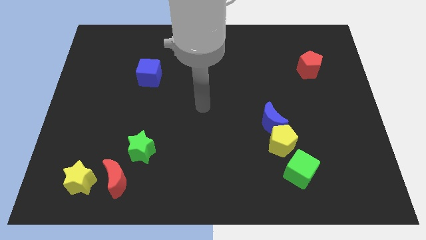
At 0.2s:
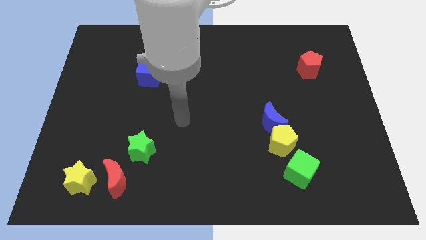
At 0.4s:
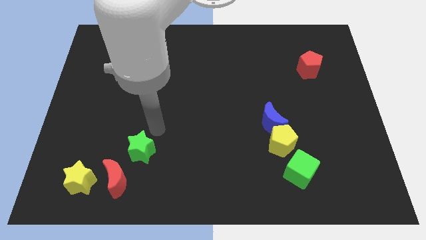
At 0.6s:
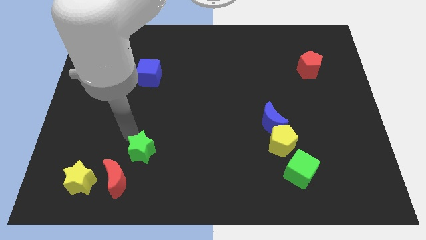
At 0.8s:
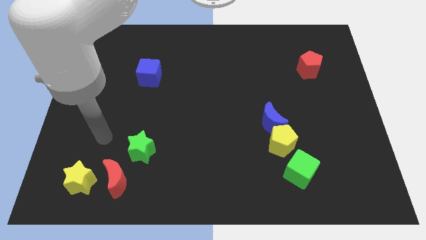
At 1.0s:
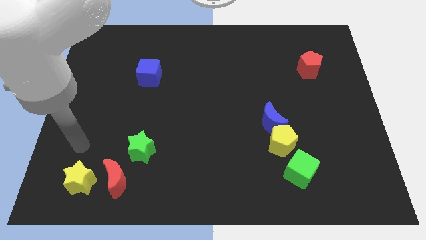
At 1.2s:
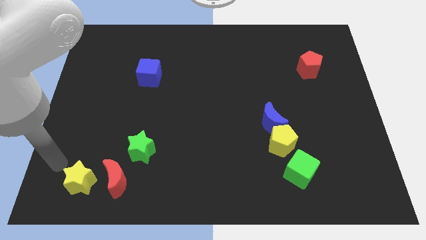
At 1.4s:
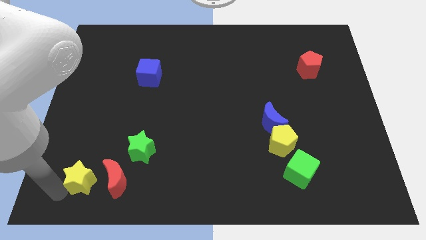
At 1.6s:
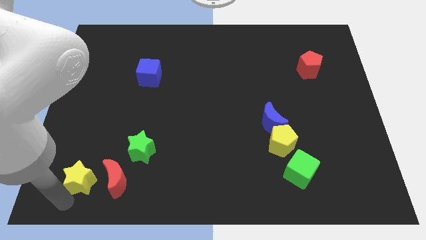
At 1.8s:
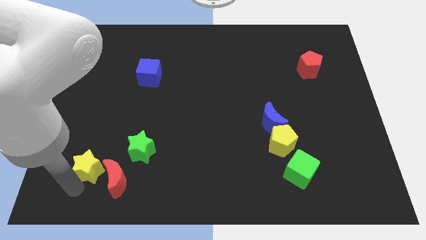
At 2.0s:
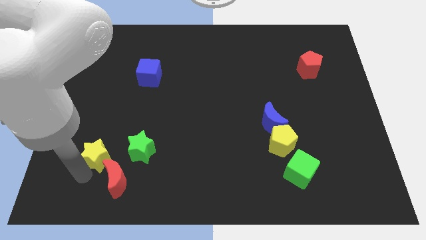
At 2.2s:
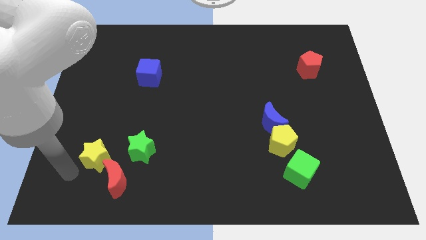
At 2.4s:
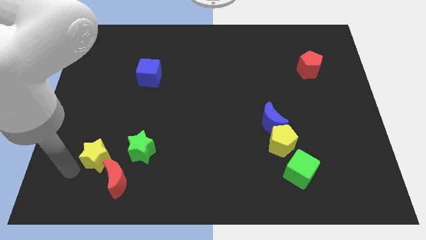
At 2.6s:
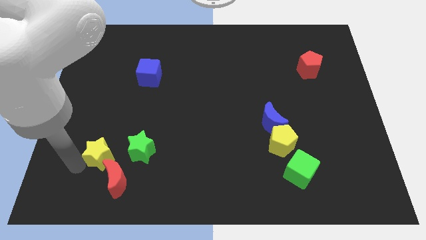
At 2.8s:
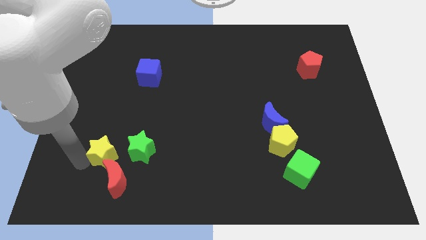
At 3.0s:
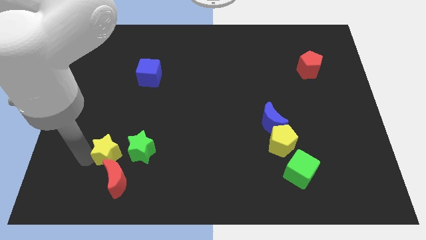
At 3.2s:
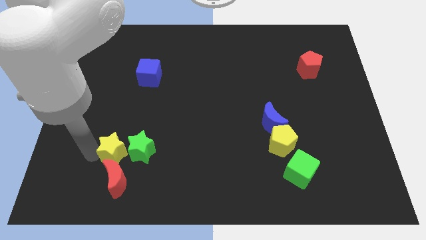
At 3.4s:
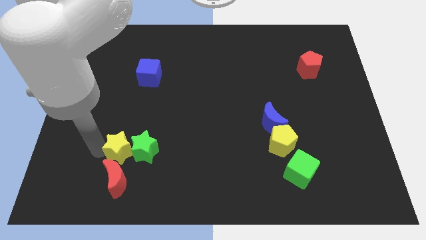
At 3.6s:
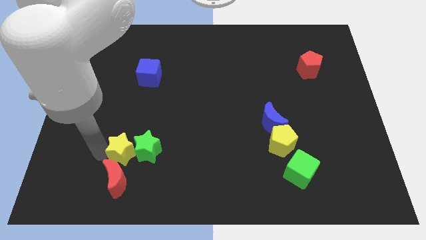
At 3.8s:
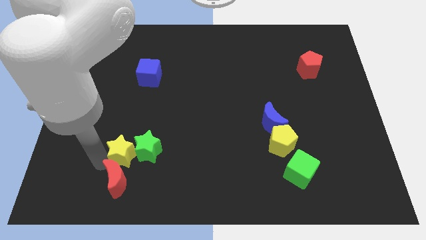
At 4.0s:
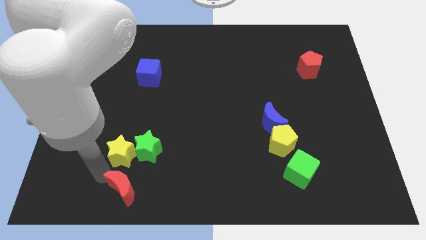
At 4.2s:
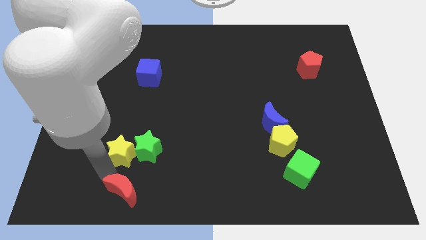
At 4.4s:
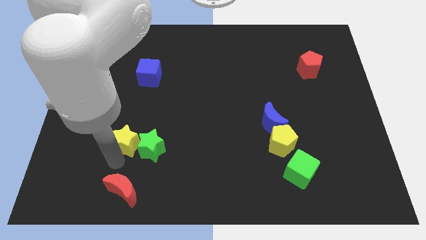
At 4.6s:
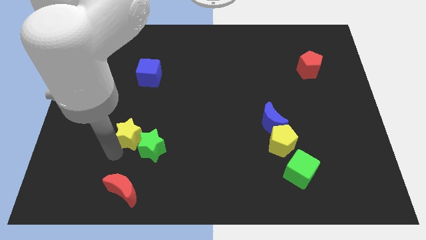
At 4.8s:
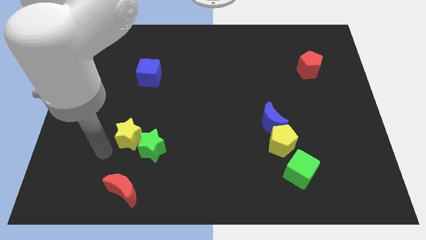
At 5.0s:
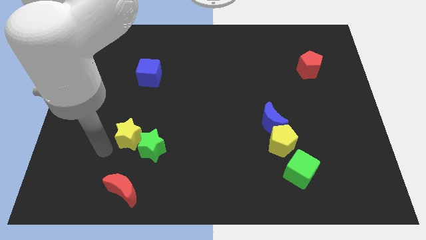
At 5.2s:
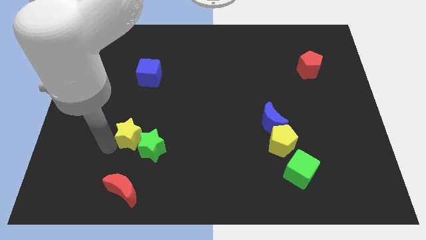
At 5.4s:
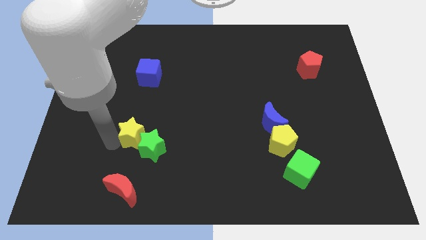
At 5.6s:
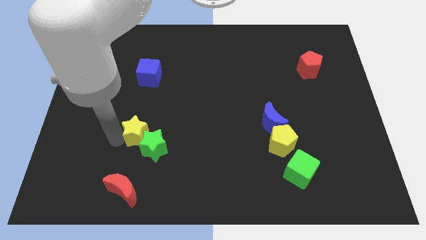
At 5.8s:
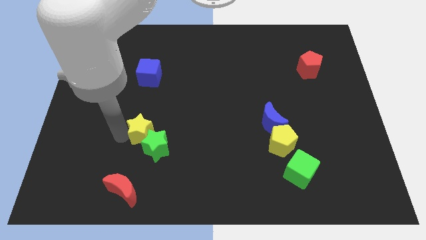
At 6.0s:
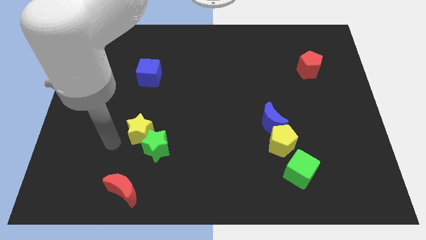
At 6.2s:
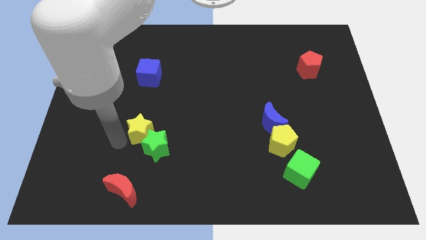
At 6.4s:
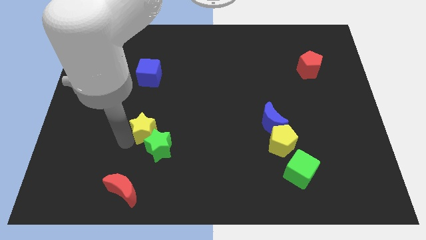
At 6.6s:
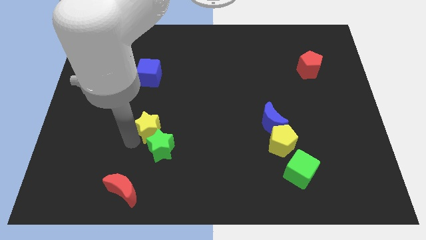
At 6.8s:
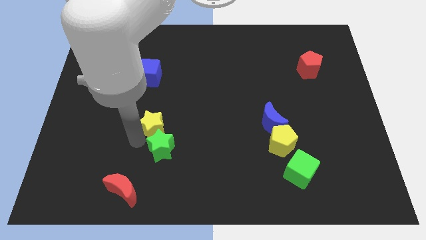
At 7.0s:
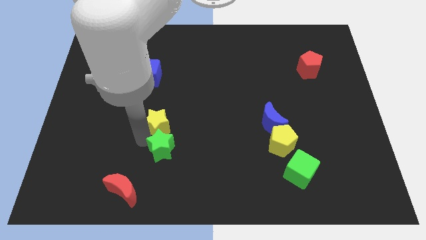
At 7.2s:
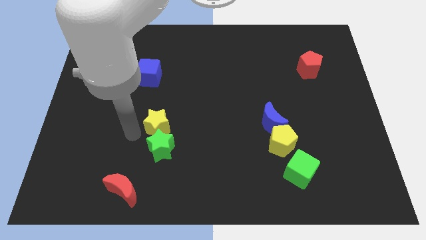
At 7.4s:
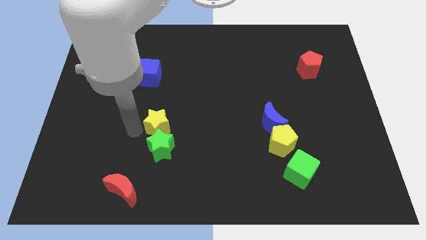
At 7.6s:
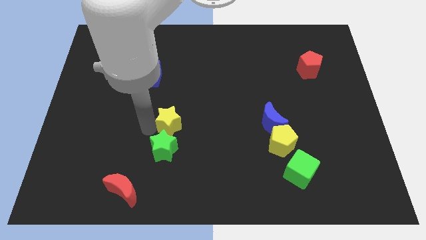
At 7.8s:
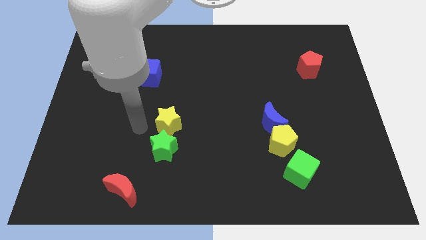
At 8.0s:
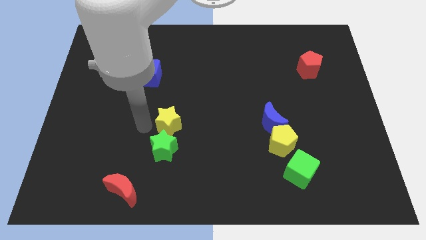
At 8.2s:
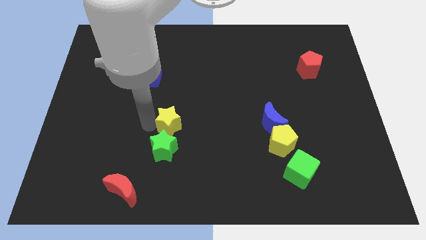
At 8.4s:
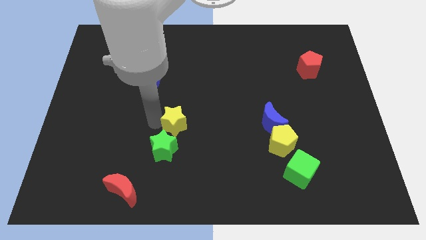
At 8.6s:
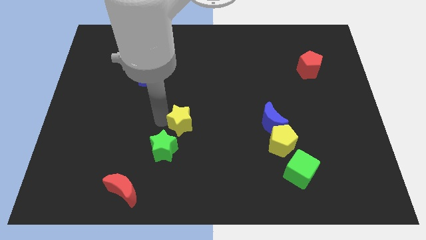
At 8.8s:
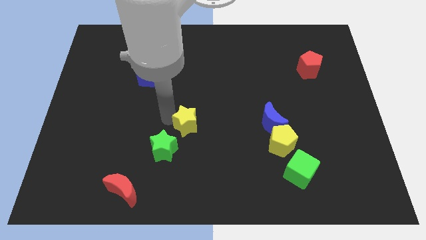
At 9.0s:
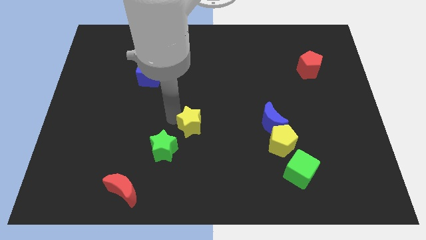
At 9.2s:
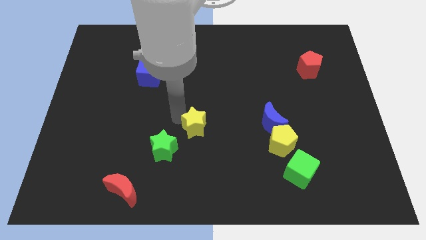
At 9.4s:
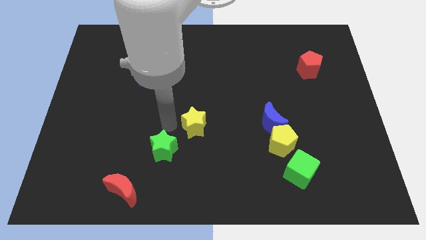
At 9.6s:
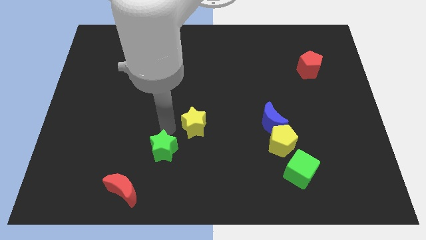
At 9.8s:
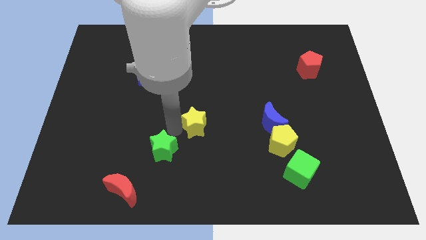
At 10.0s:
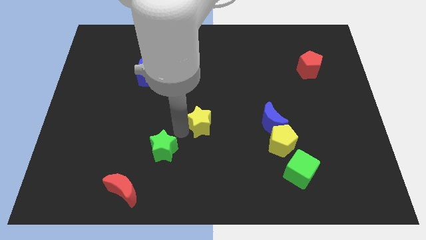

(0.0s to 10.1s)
push the yellow star to the left side of the blue moon

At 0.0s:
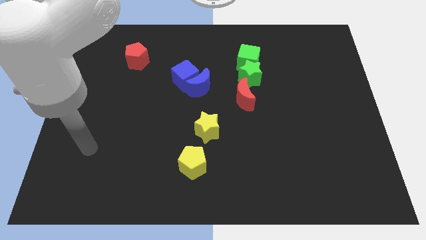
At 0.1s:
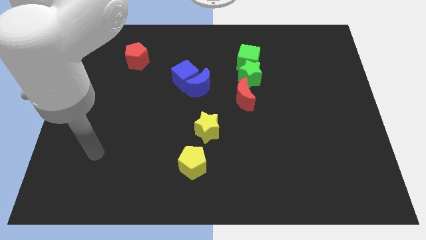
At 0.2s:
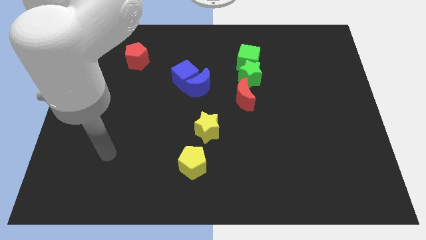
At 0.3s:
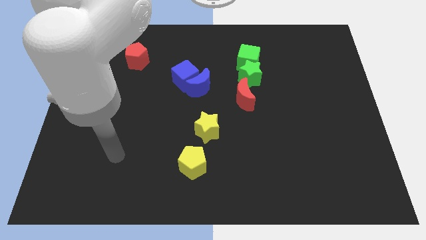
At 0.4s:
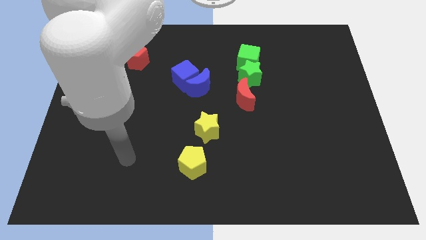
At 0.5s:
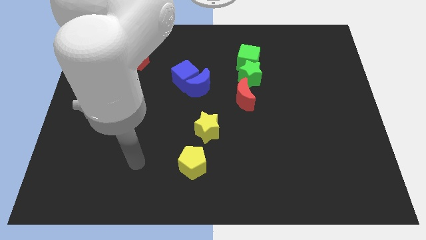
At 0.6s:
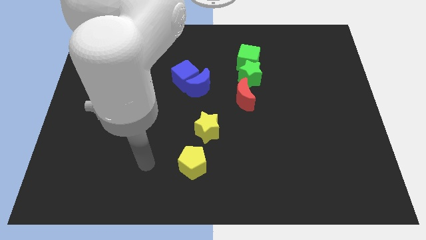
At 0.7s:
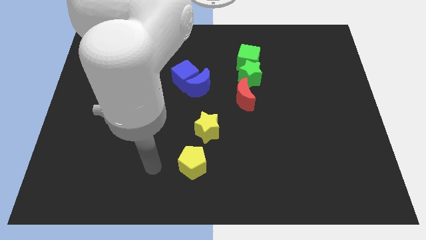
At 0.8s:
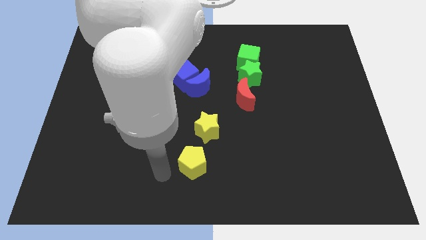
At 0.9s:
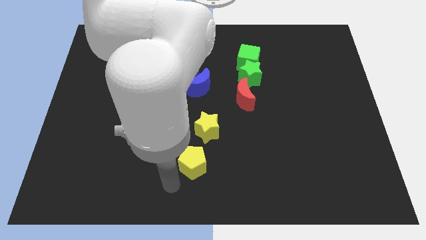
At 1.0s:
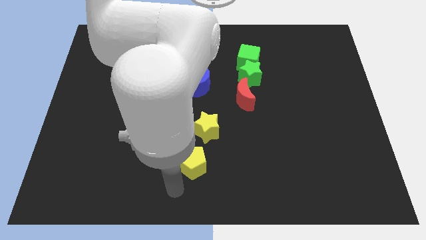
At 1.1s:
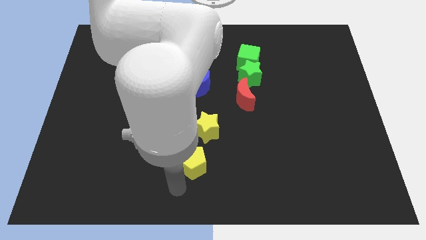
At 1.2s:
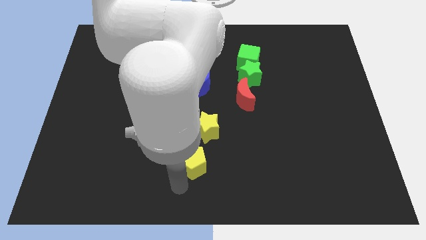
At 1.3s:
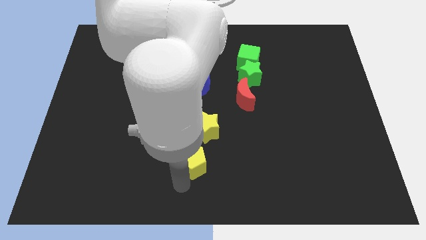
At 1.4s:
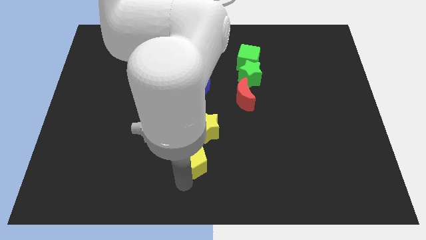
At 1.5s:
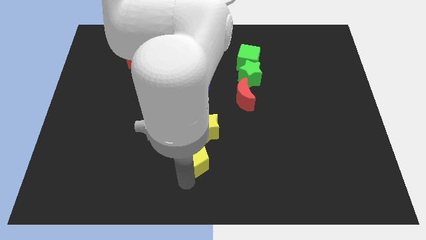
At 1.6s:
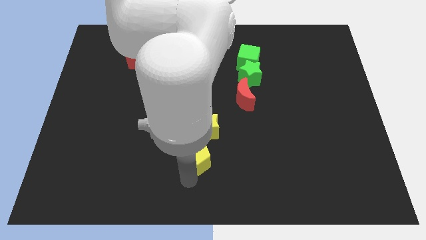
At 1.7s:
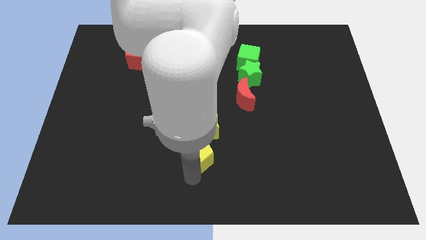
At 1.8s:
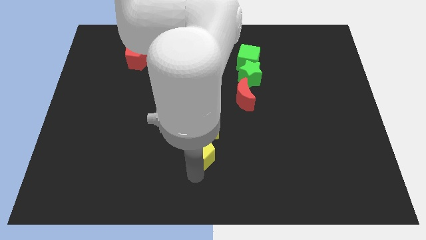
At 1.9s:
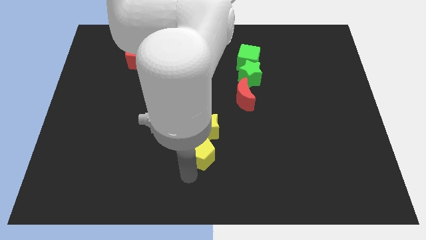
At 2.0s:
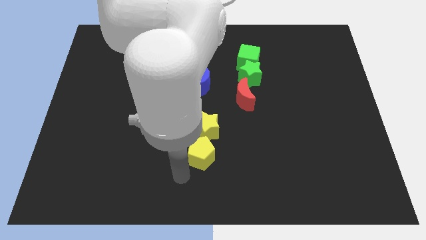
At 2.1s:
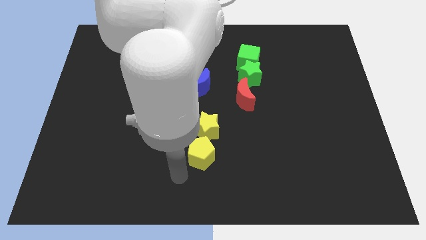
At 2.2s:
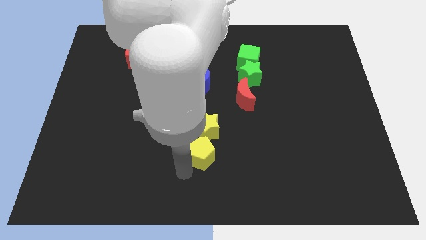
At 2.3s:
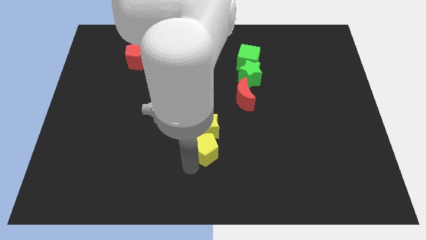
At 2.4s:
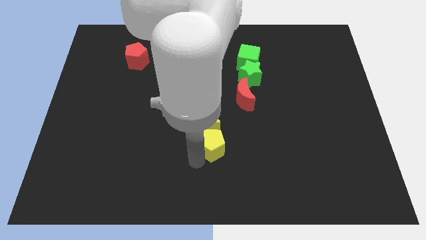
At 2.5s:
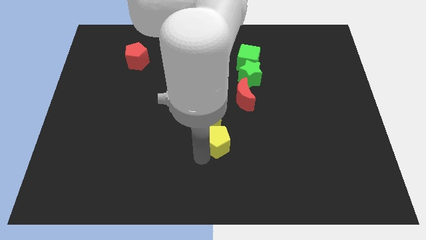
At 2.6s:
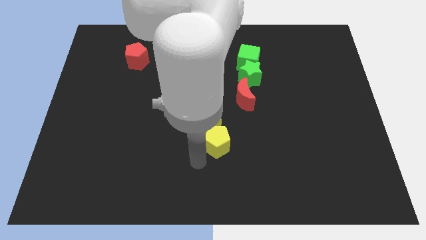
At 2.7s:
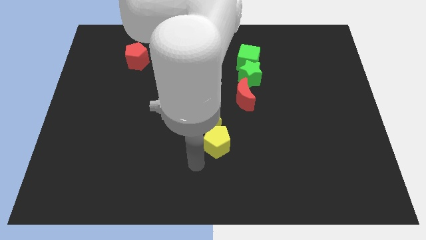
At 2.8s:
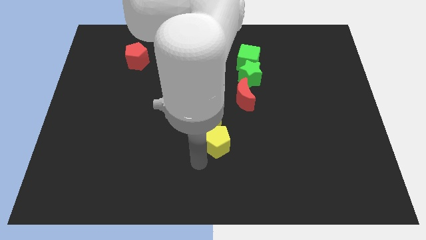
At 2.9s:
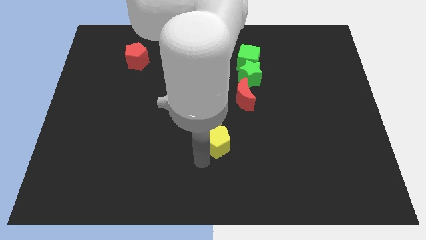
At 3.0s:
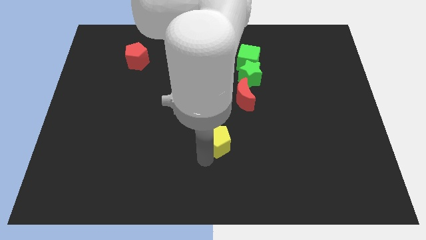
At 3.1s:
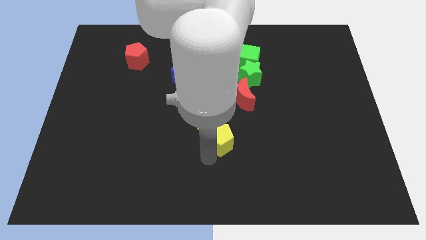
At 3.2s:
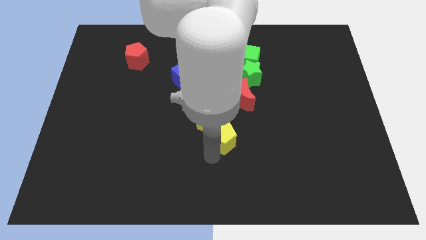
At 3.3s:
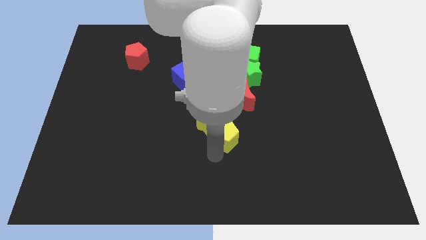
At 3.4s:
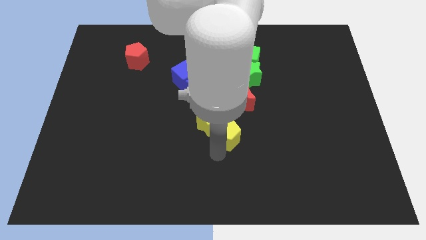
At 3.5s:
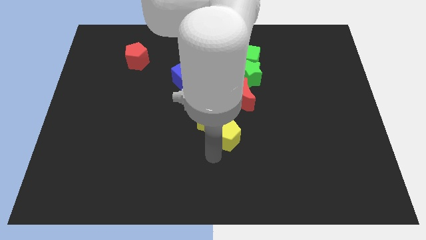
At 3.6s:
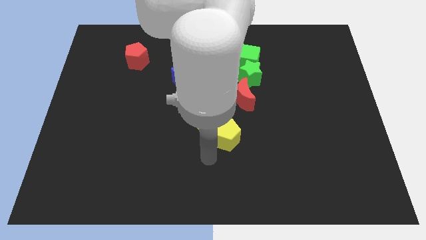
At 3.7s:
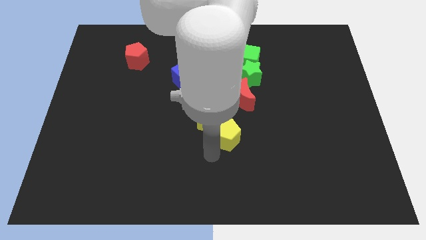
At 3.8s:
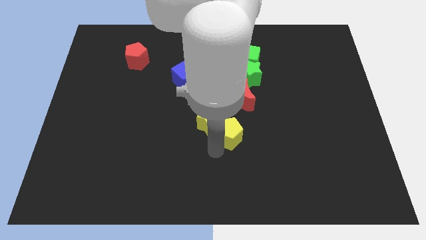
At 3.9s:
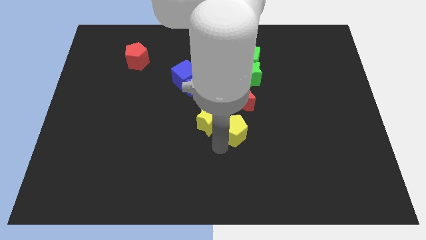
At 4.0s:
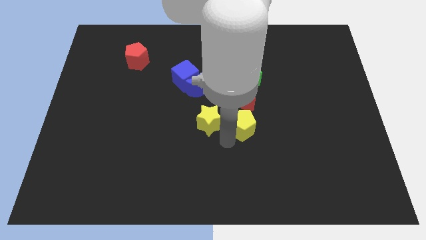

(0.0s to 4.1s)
move the yellow pentagon below the green star
